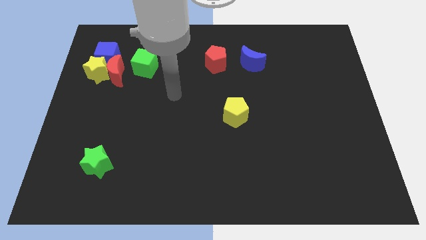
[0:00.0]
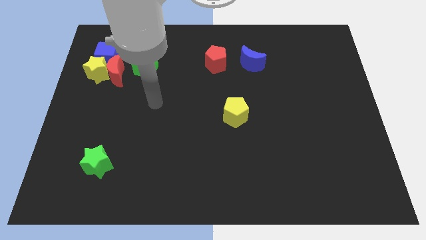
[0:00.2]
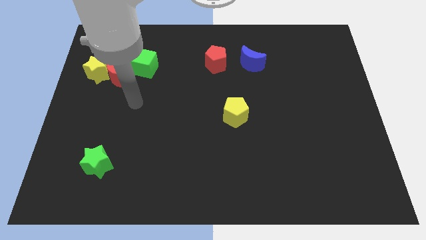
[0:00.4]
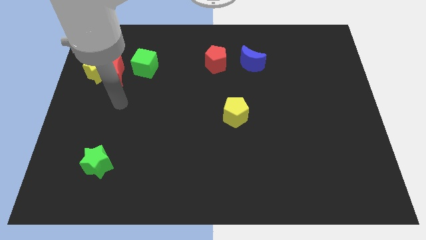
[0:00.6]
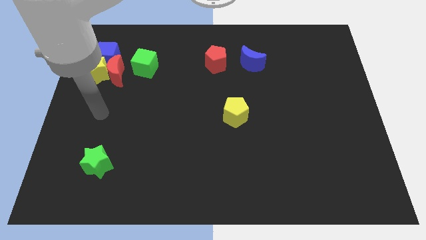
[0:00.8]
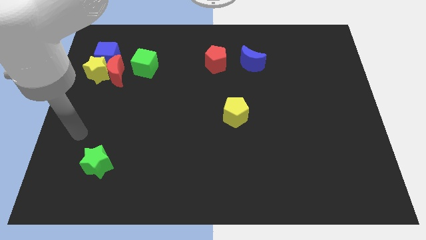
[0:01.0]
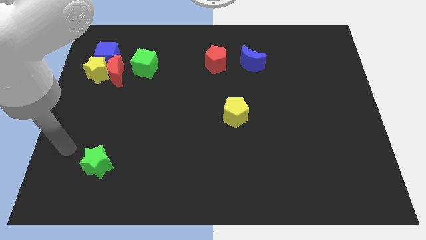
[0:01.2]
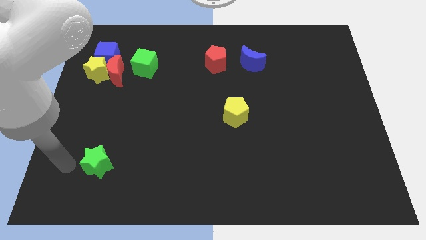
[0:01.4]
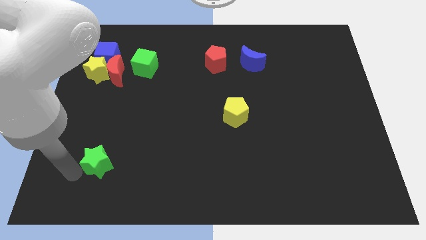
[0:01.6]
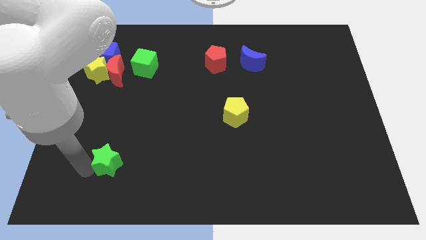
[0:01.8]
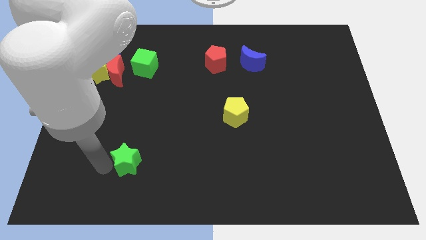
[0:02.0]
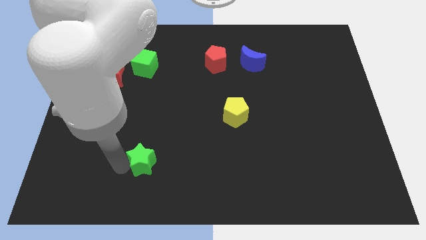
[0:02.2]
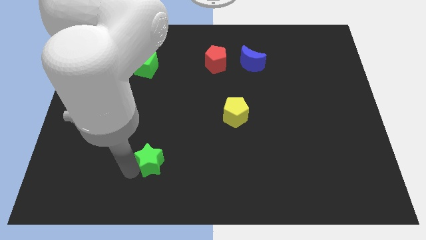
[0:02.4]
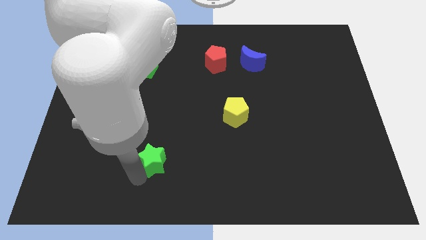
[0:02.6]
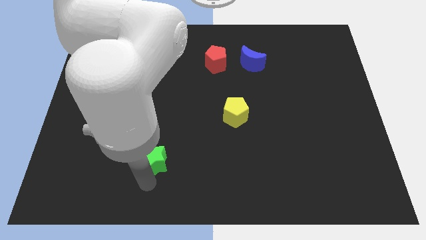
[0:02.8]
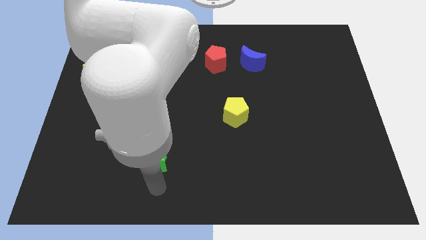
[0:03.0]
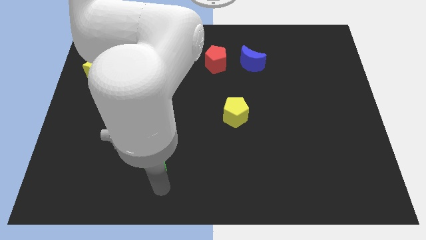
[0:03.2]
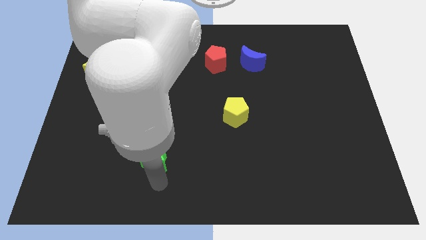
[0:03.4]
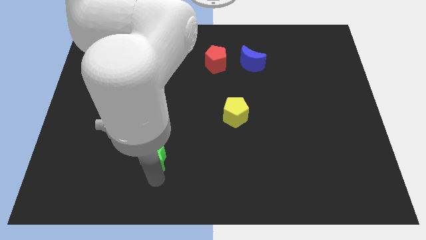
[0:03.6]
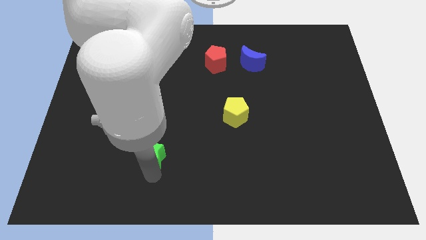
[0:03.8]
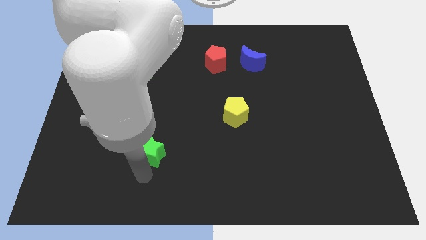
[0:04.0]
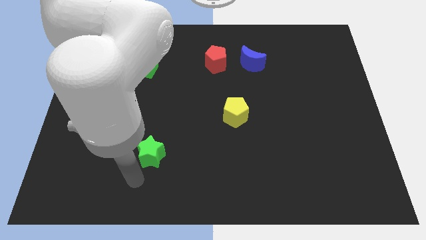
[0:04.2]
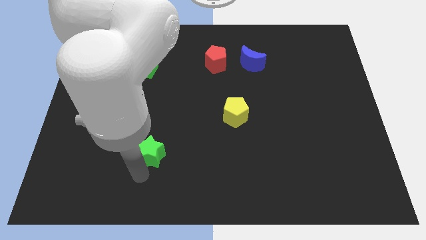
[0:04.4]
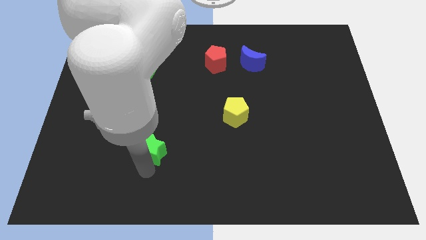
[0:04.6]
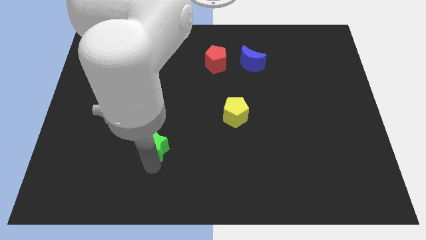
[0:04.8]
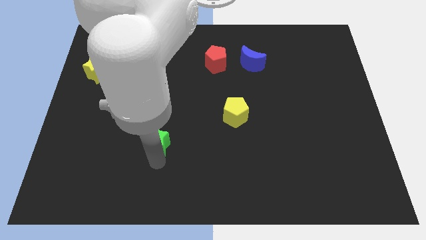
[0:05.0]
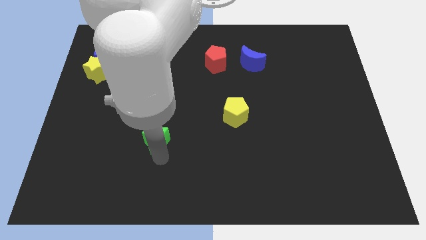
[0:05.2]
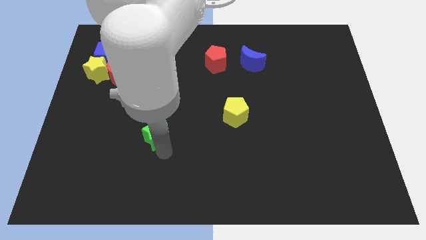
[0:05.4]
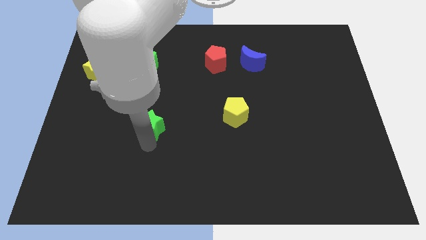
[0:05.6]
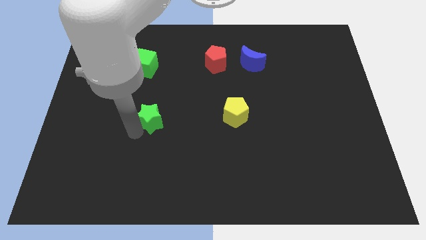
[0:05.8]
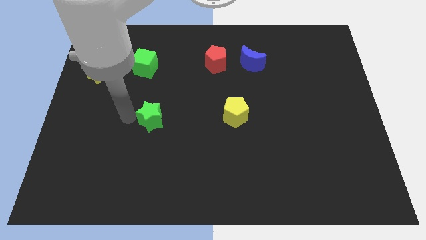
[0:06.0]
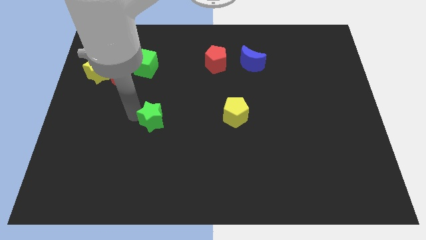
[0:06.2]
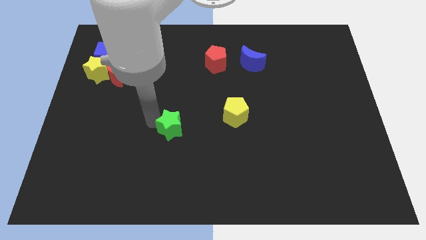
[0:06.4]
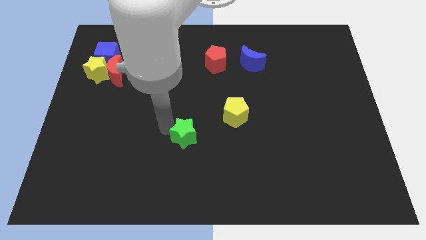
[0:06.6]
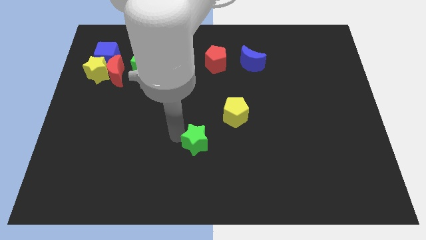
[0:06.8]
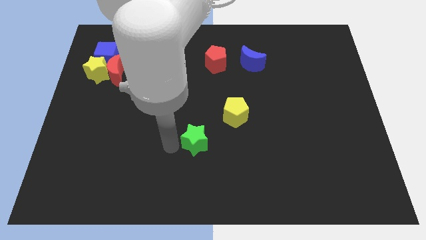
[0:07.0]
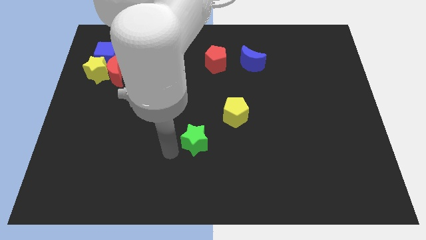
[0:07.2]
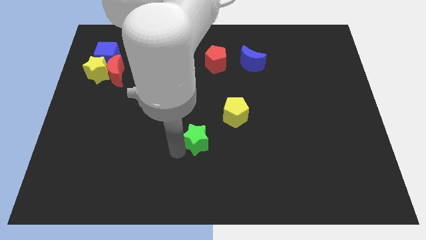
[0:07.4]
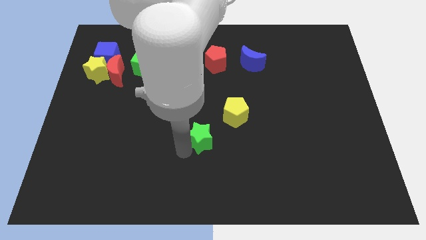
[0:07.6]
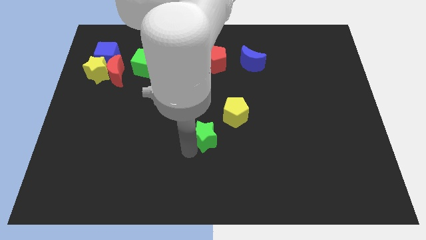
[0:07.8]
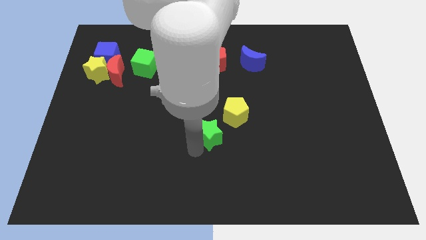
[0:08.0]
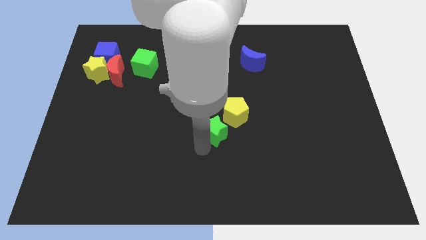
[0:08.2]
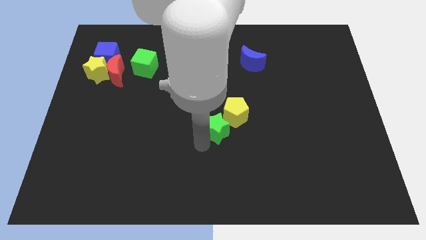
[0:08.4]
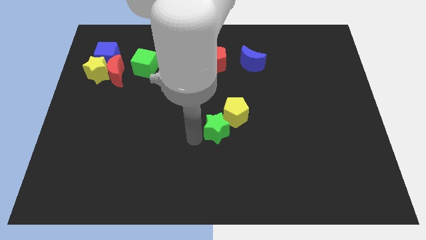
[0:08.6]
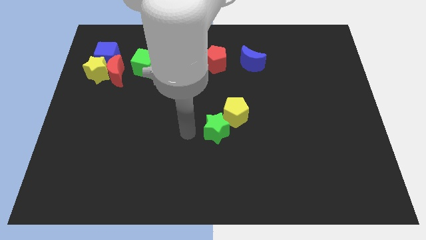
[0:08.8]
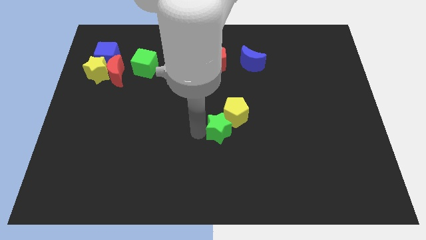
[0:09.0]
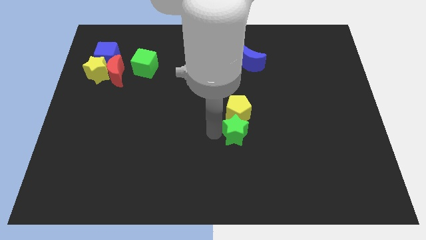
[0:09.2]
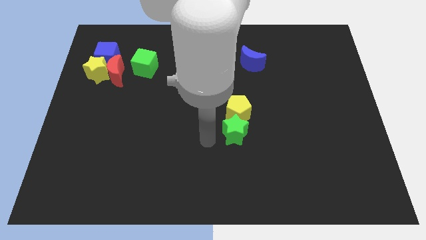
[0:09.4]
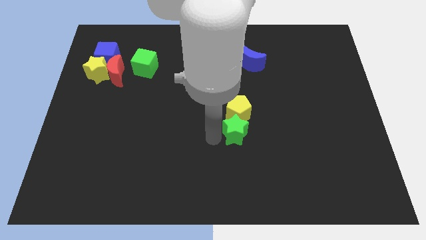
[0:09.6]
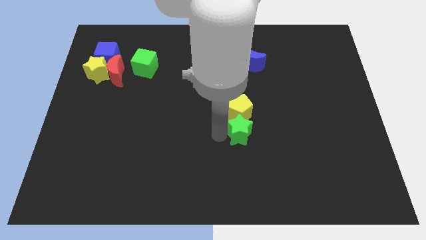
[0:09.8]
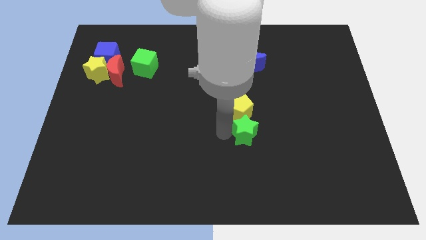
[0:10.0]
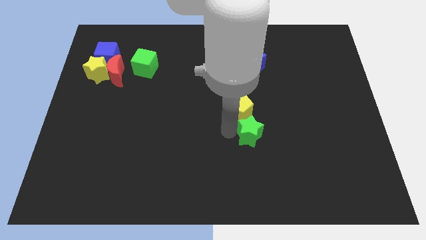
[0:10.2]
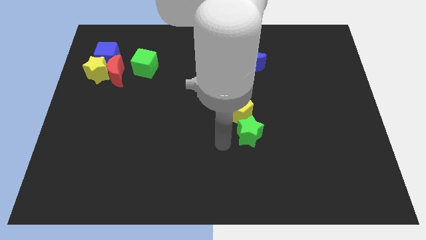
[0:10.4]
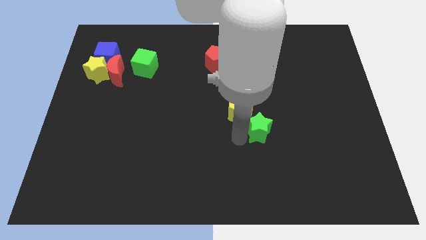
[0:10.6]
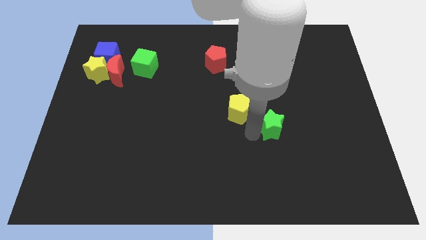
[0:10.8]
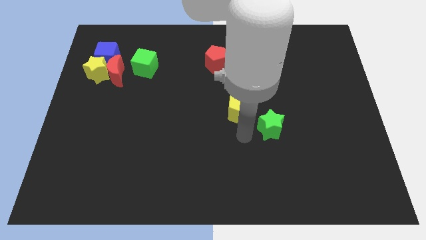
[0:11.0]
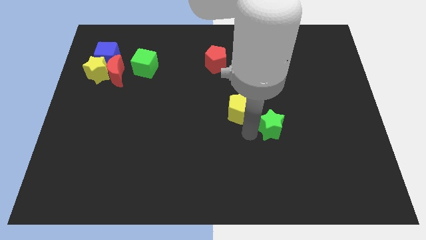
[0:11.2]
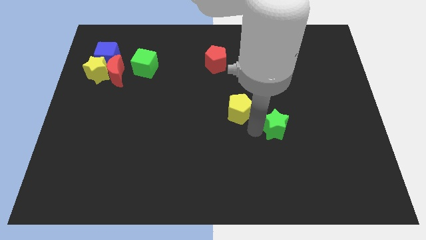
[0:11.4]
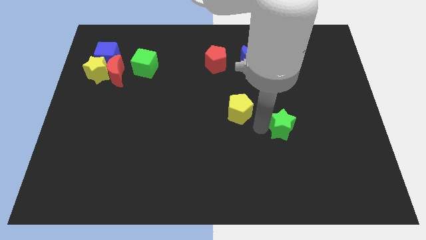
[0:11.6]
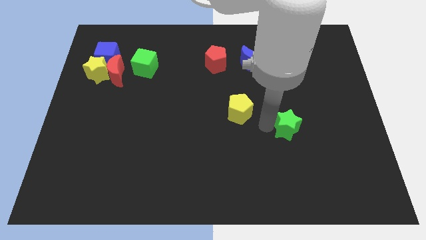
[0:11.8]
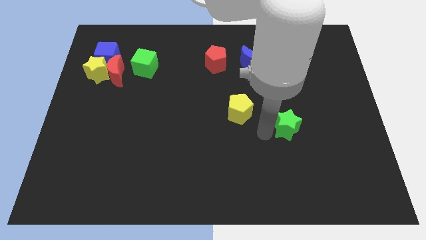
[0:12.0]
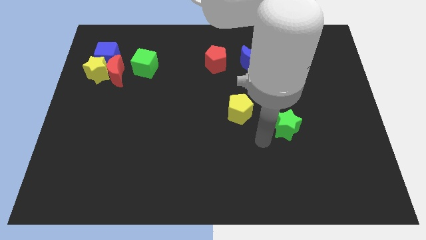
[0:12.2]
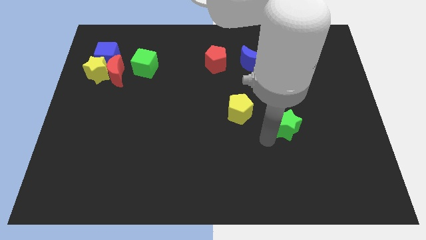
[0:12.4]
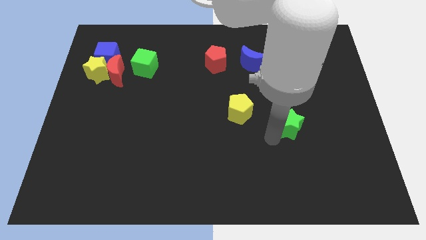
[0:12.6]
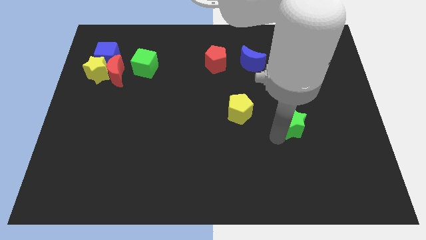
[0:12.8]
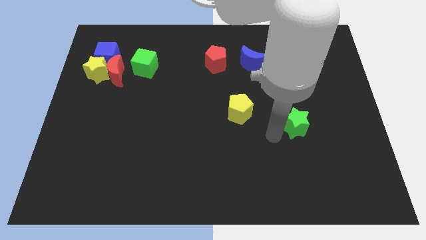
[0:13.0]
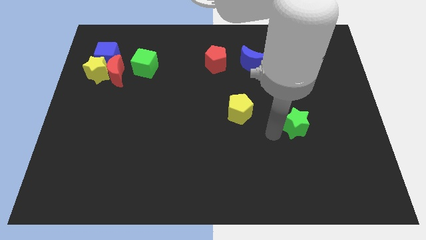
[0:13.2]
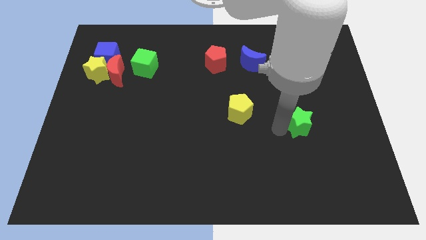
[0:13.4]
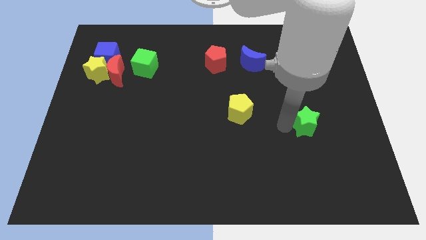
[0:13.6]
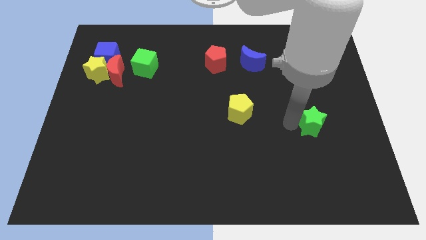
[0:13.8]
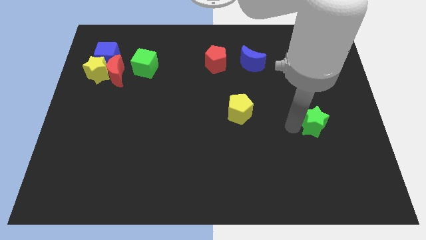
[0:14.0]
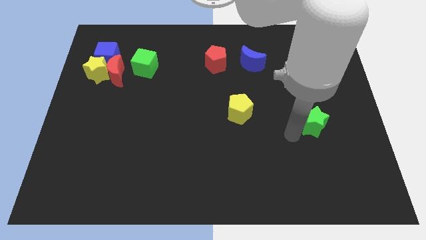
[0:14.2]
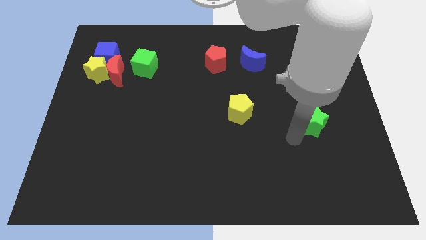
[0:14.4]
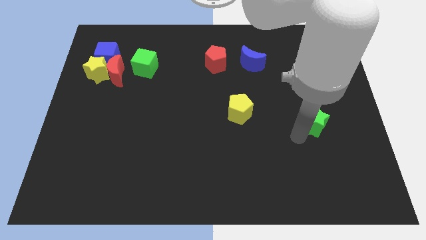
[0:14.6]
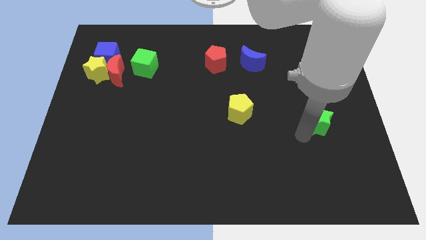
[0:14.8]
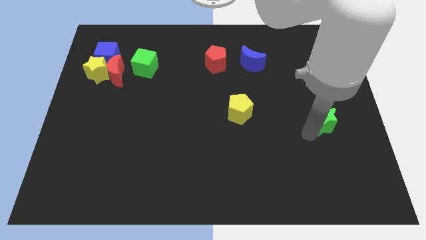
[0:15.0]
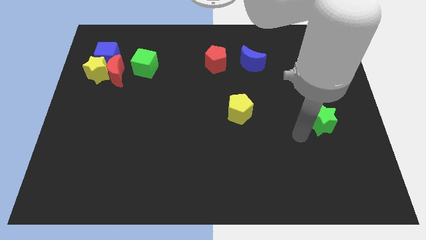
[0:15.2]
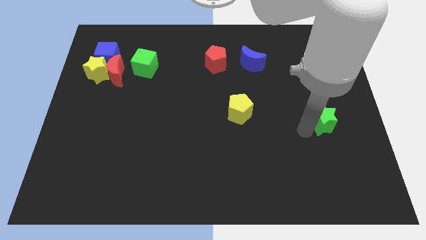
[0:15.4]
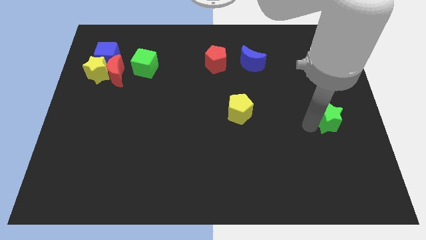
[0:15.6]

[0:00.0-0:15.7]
put the green star to the center right
